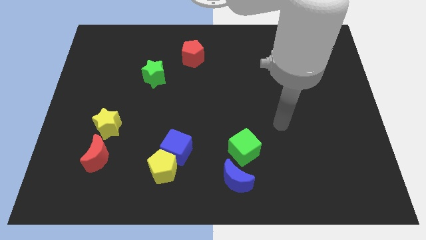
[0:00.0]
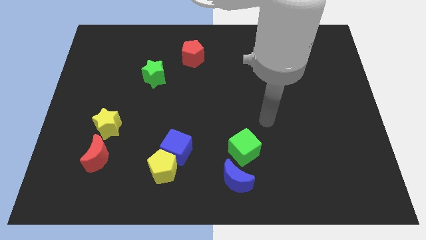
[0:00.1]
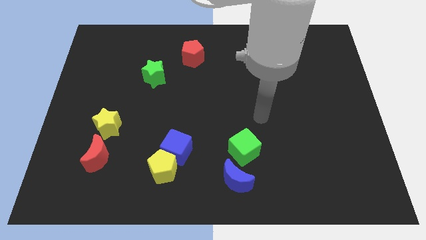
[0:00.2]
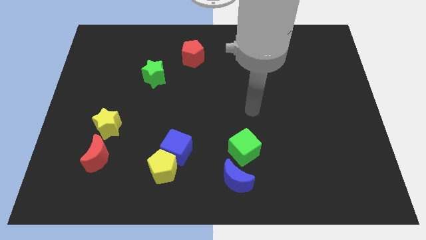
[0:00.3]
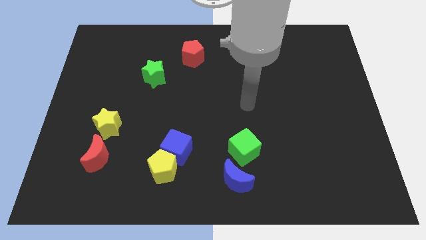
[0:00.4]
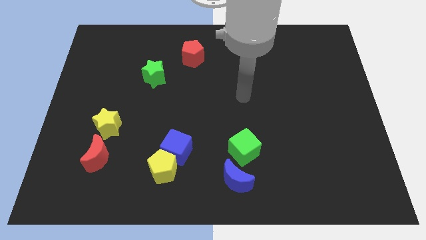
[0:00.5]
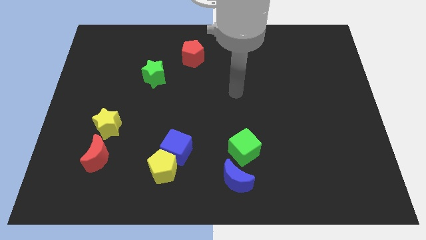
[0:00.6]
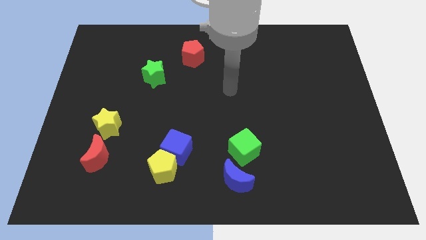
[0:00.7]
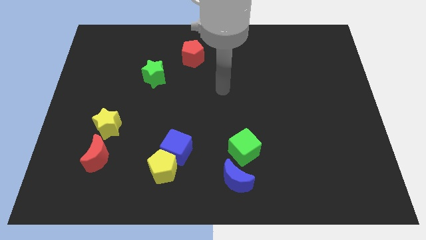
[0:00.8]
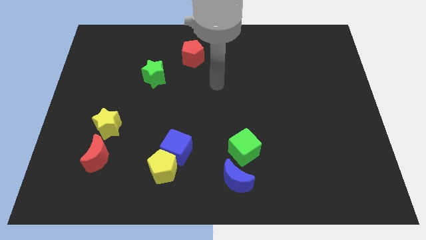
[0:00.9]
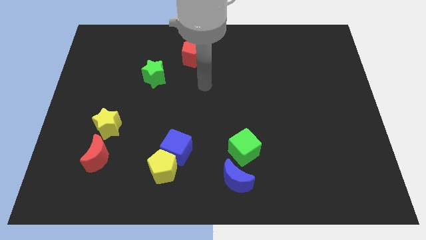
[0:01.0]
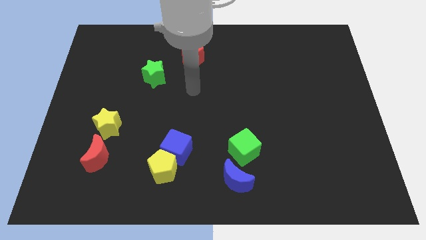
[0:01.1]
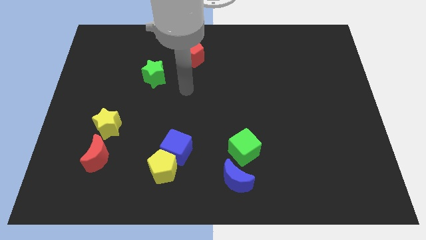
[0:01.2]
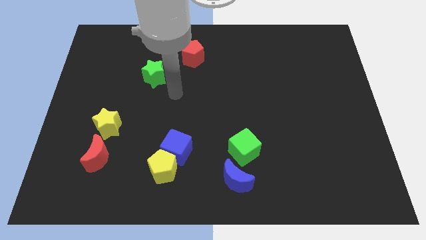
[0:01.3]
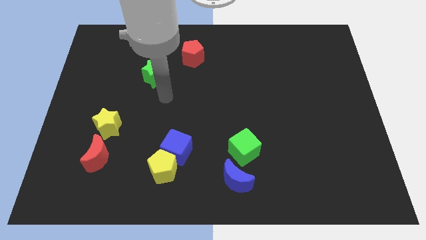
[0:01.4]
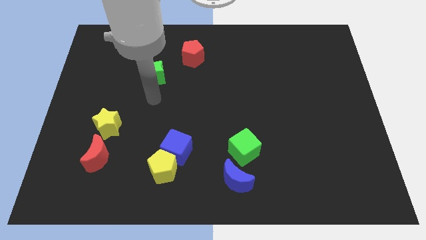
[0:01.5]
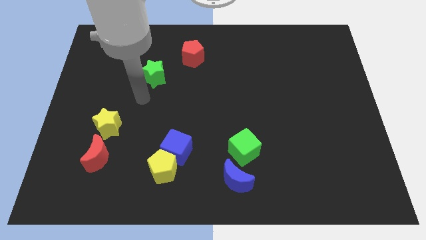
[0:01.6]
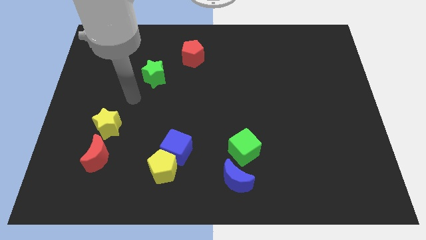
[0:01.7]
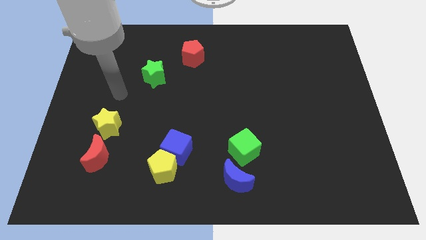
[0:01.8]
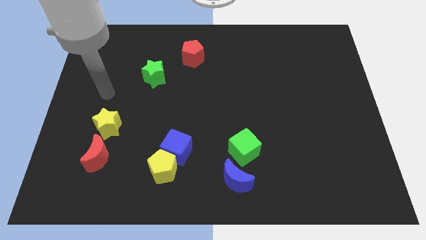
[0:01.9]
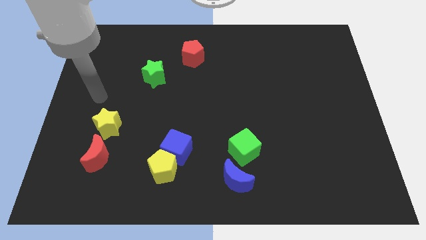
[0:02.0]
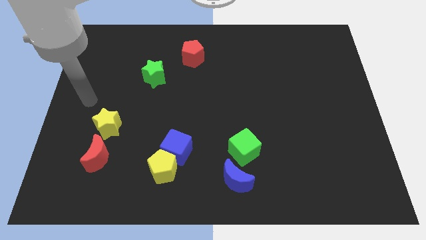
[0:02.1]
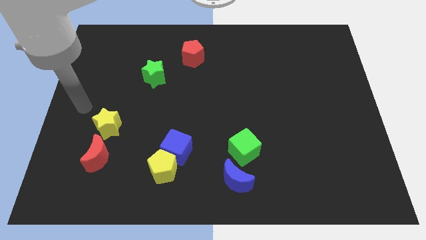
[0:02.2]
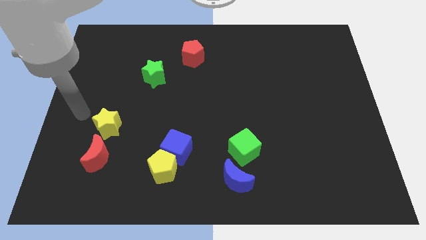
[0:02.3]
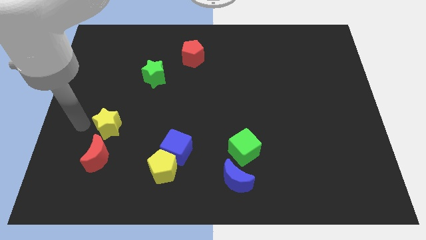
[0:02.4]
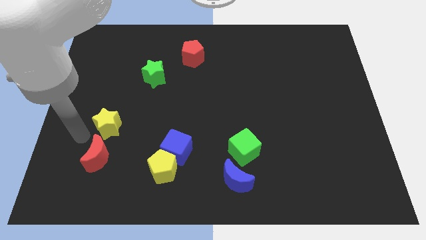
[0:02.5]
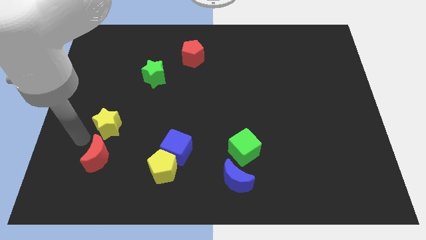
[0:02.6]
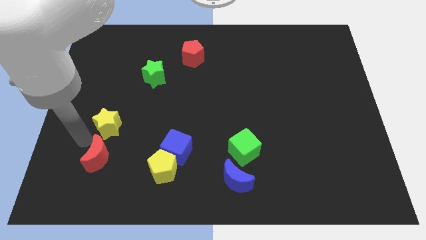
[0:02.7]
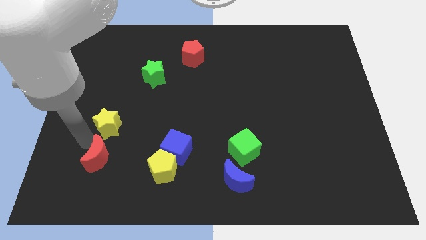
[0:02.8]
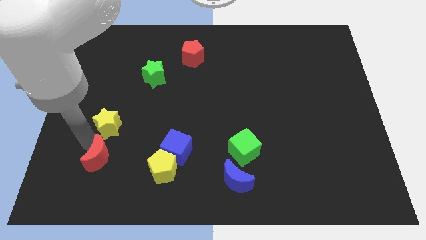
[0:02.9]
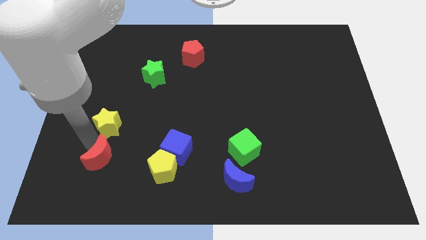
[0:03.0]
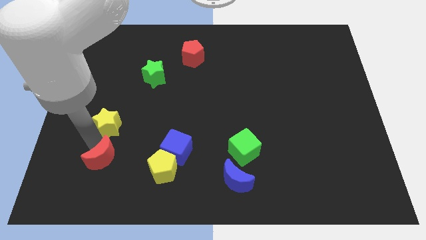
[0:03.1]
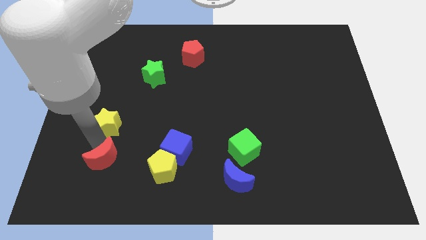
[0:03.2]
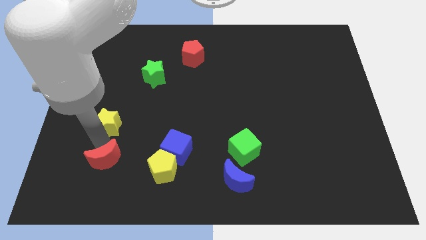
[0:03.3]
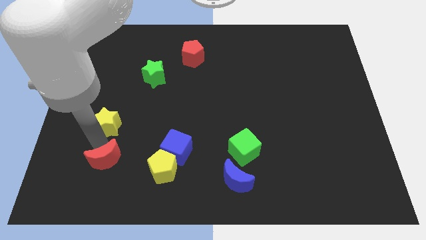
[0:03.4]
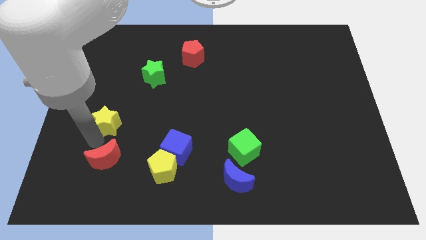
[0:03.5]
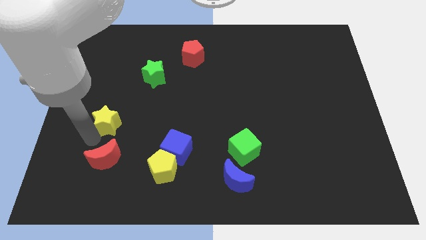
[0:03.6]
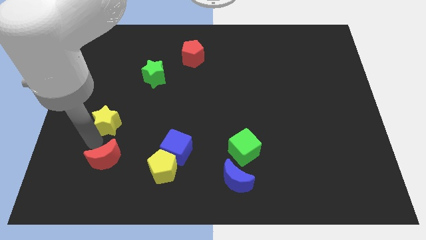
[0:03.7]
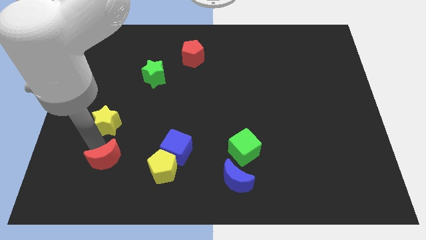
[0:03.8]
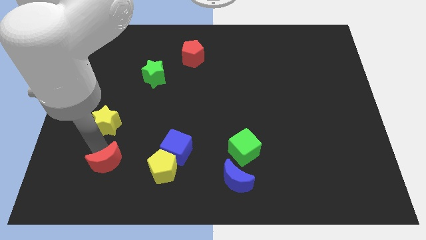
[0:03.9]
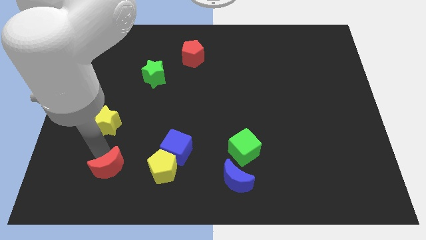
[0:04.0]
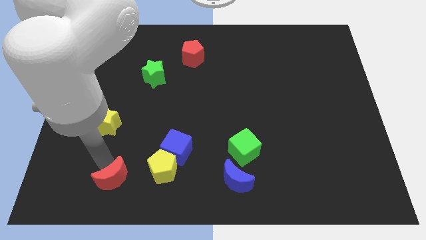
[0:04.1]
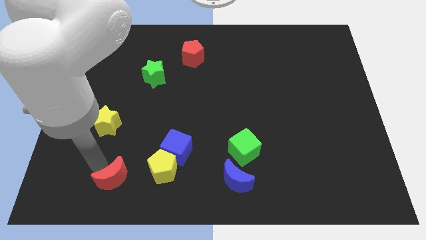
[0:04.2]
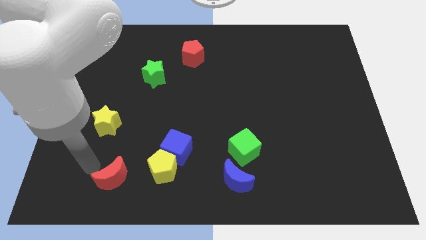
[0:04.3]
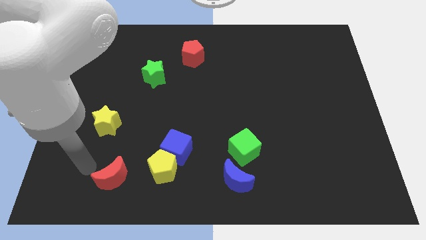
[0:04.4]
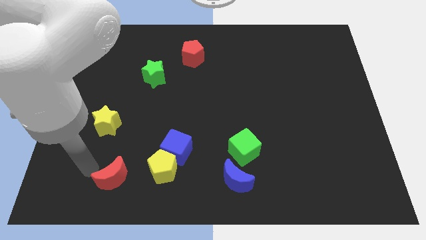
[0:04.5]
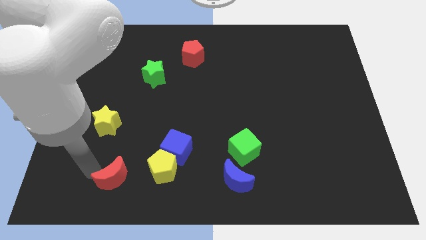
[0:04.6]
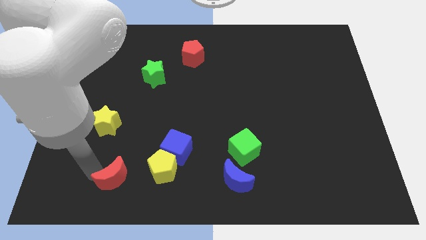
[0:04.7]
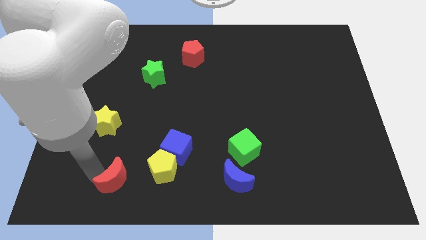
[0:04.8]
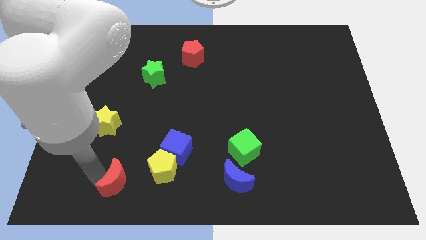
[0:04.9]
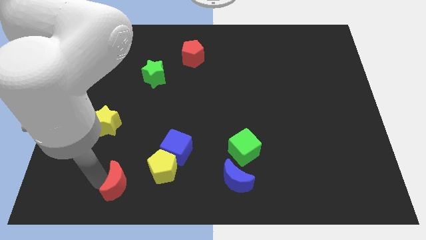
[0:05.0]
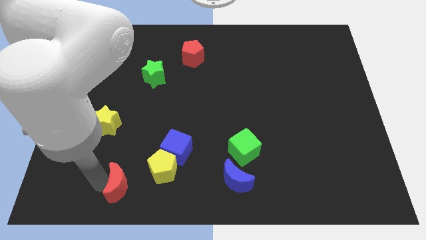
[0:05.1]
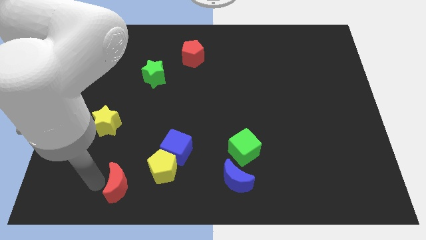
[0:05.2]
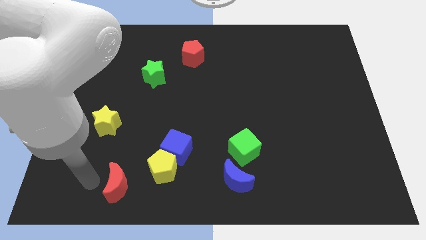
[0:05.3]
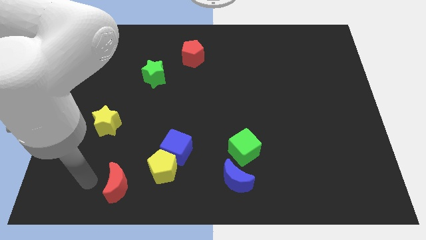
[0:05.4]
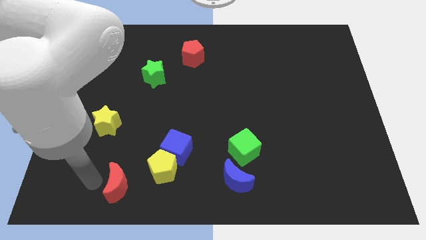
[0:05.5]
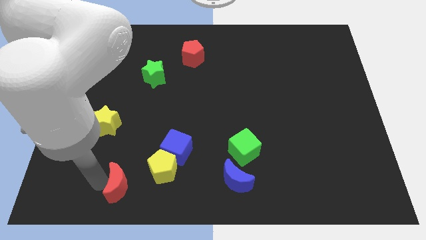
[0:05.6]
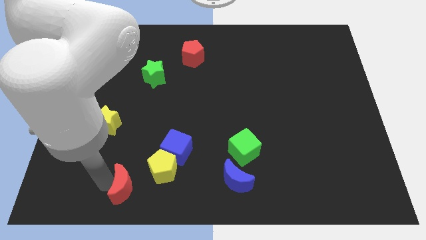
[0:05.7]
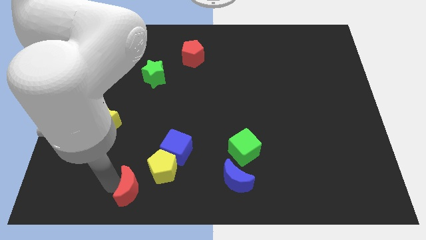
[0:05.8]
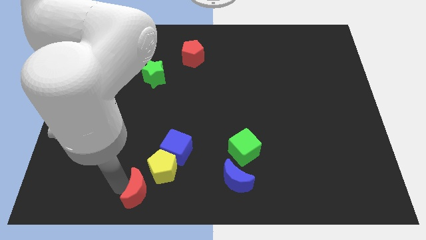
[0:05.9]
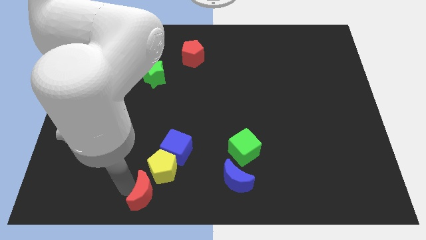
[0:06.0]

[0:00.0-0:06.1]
push the red moon to the bottom

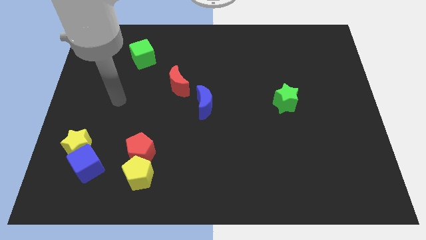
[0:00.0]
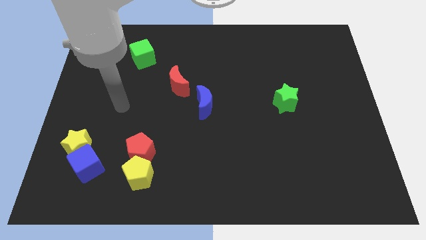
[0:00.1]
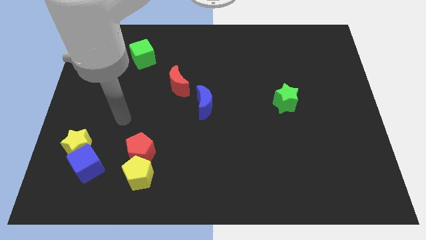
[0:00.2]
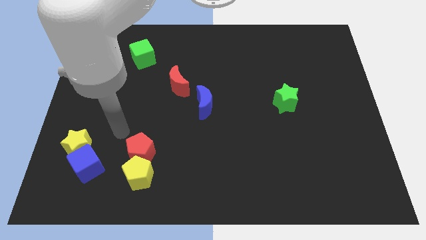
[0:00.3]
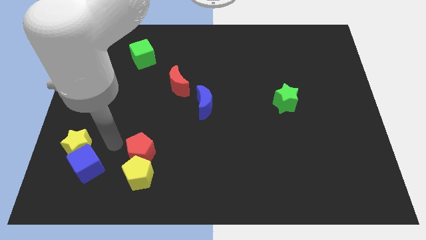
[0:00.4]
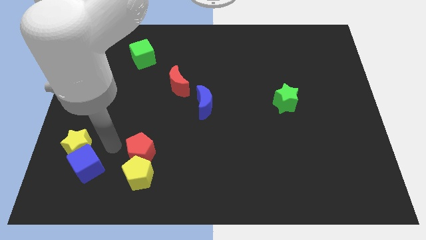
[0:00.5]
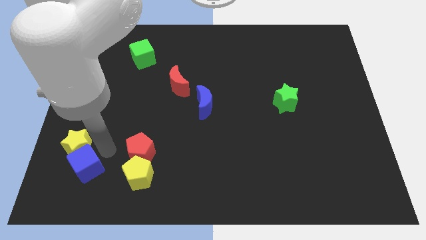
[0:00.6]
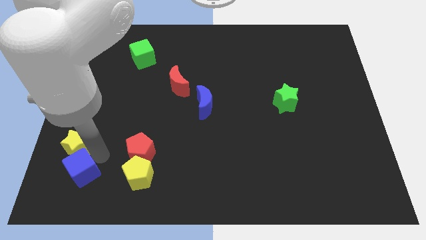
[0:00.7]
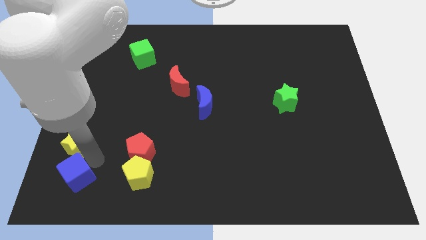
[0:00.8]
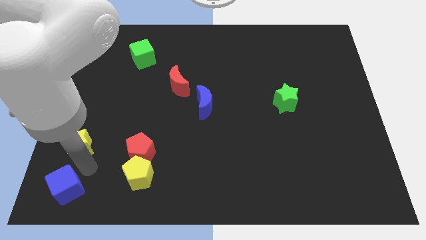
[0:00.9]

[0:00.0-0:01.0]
move the blue cube to the lower left corner
